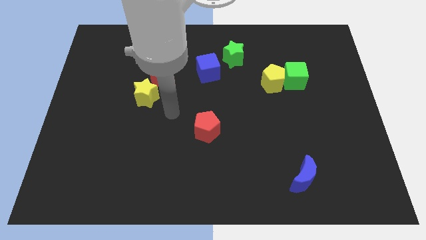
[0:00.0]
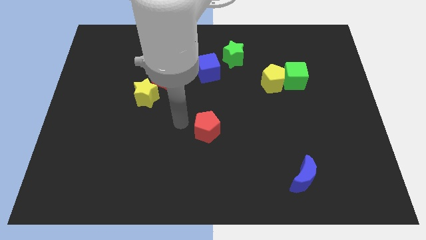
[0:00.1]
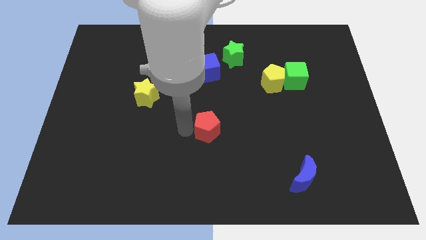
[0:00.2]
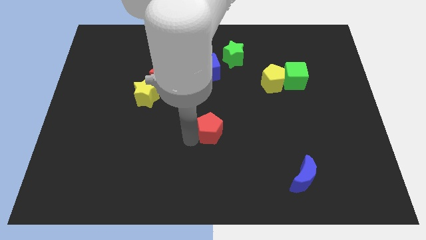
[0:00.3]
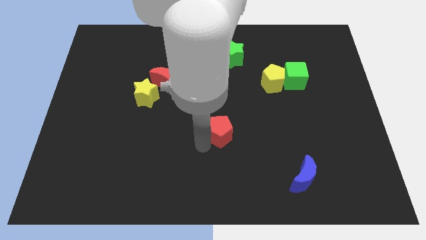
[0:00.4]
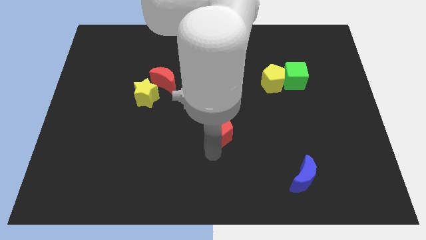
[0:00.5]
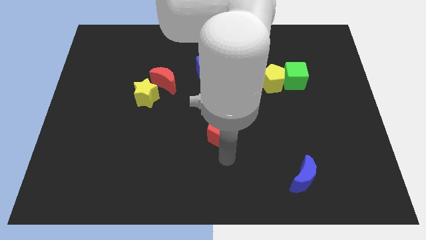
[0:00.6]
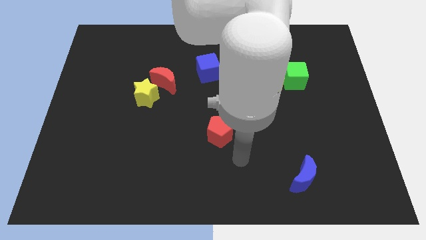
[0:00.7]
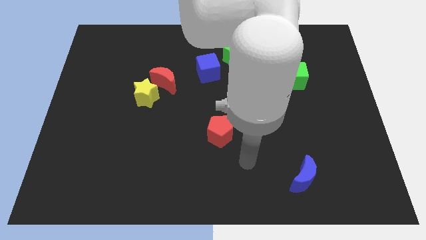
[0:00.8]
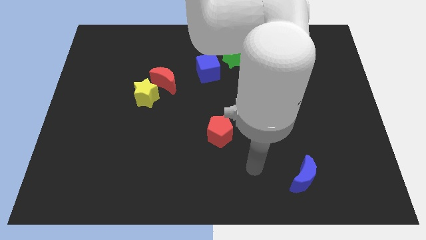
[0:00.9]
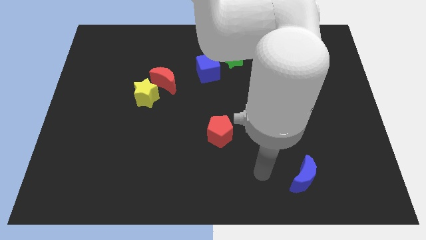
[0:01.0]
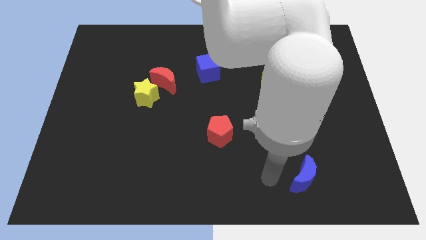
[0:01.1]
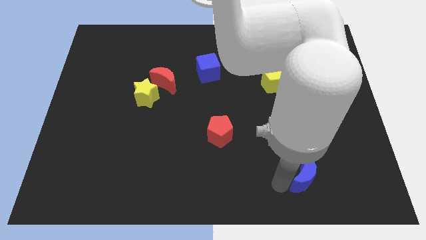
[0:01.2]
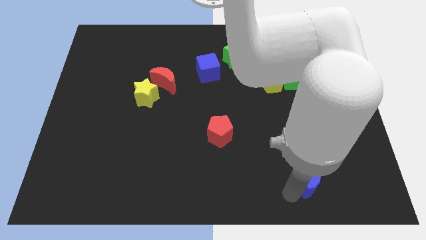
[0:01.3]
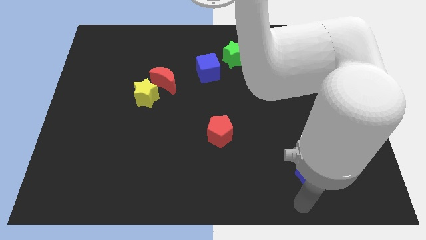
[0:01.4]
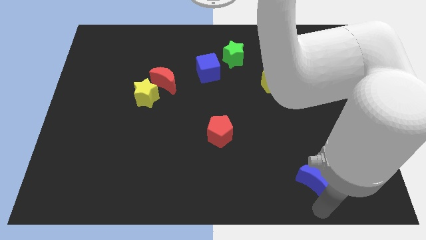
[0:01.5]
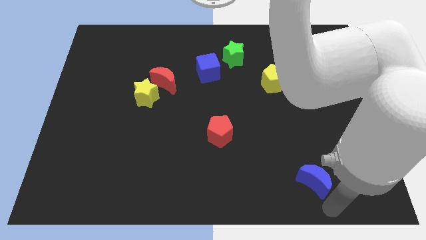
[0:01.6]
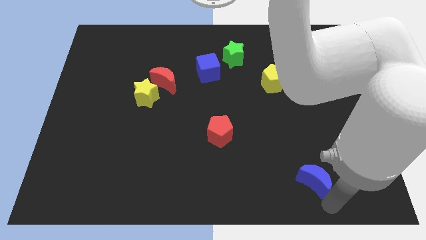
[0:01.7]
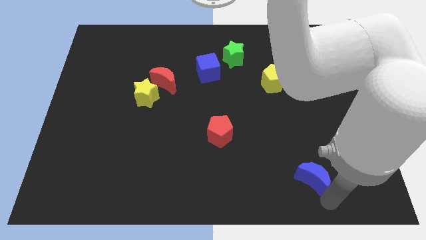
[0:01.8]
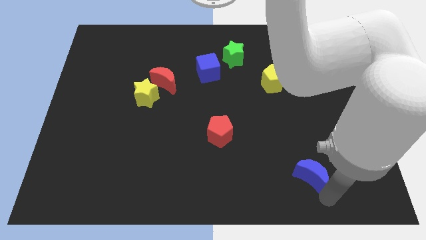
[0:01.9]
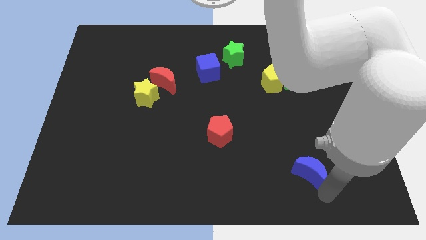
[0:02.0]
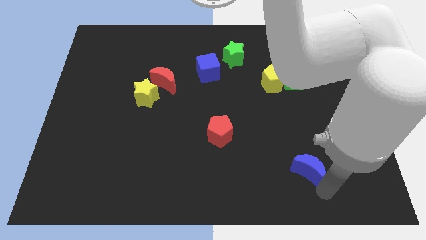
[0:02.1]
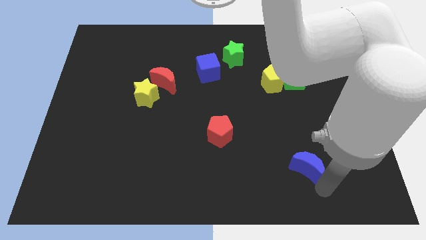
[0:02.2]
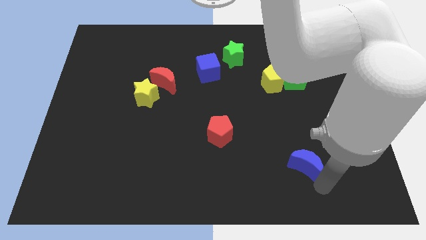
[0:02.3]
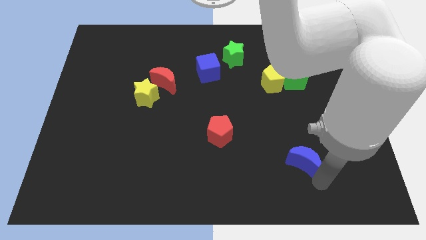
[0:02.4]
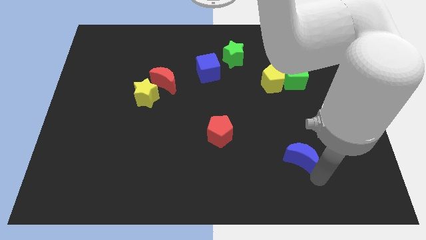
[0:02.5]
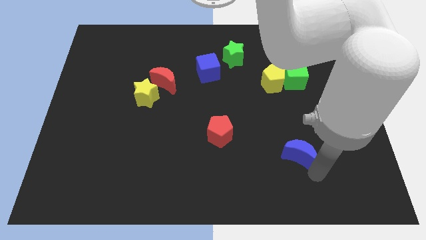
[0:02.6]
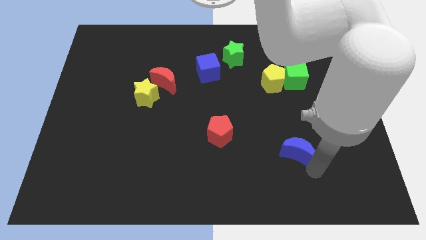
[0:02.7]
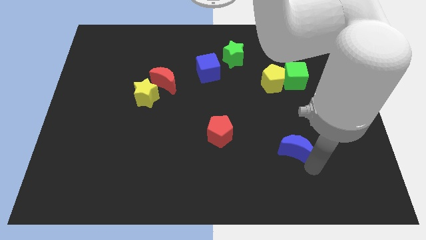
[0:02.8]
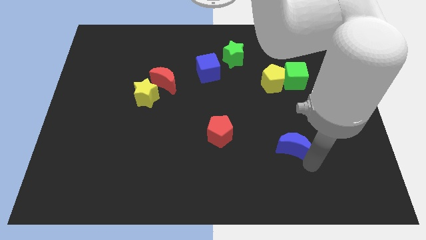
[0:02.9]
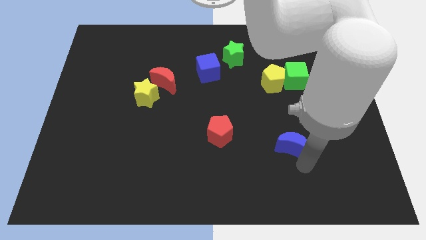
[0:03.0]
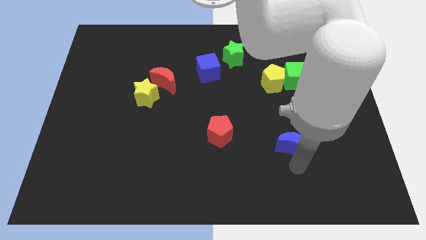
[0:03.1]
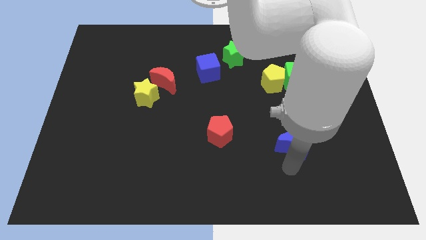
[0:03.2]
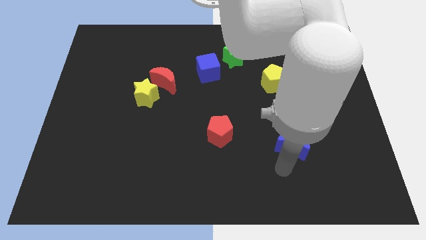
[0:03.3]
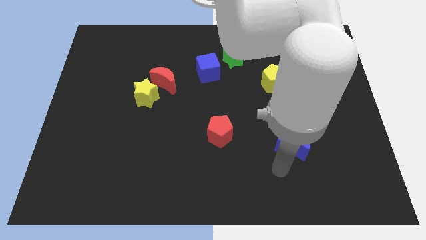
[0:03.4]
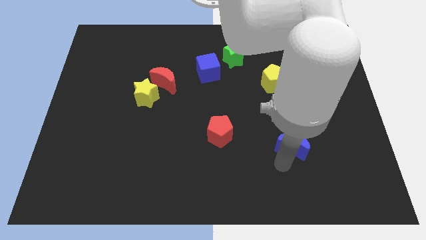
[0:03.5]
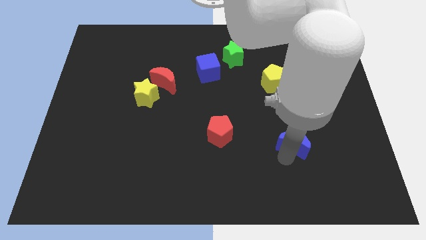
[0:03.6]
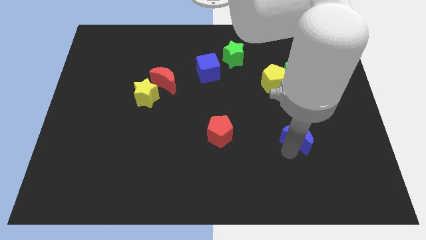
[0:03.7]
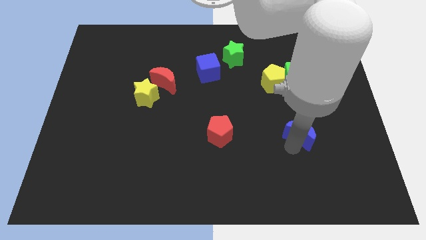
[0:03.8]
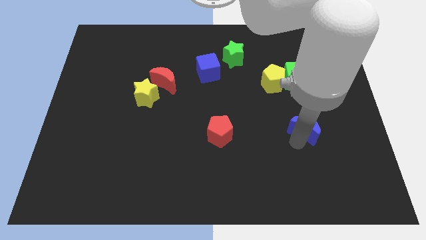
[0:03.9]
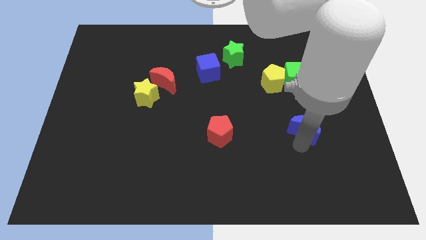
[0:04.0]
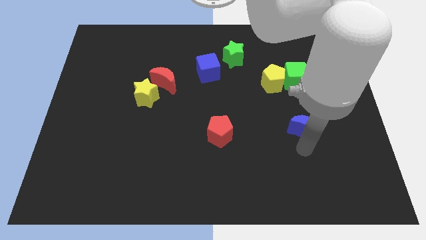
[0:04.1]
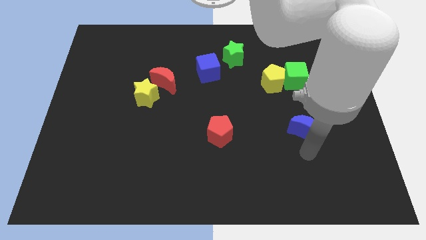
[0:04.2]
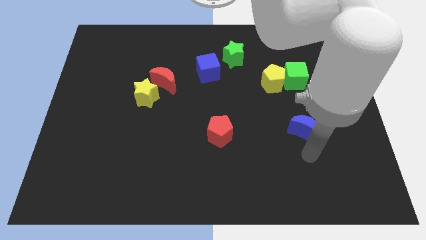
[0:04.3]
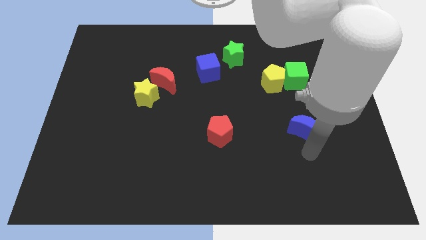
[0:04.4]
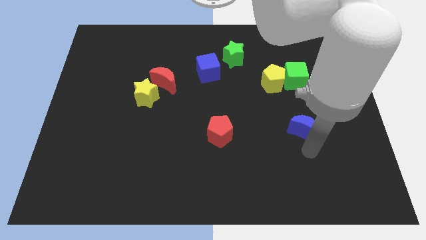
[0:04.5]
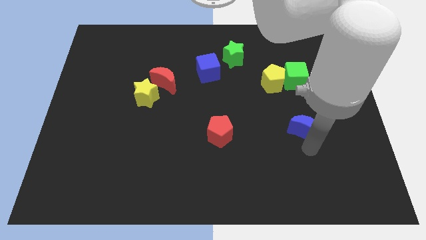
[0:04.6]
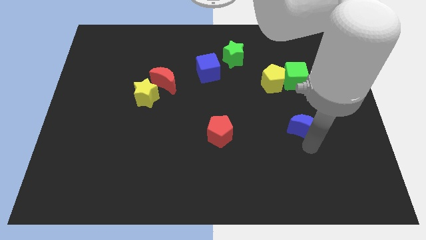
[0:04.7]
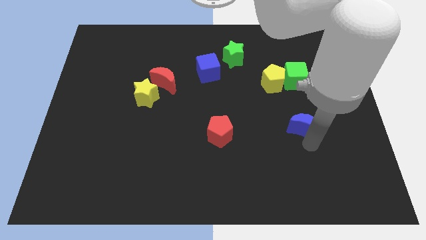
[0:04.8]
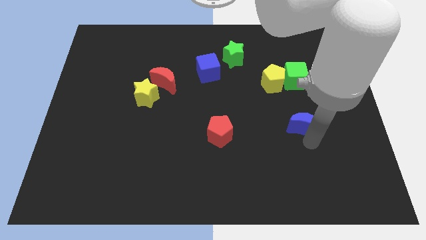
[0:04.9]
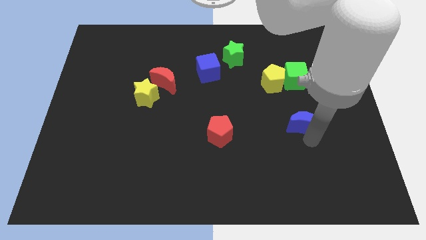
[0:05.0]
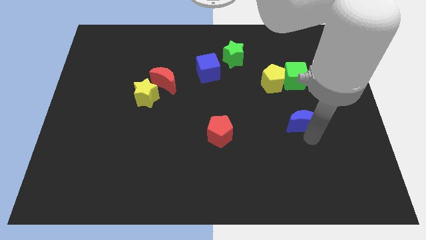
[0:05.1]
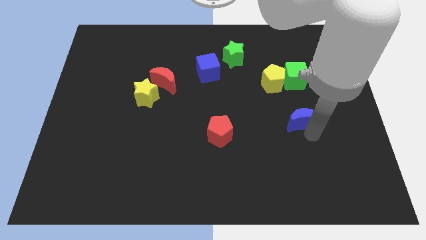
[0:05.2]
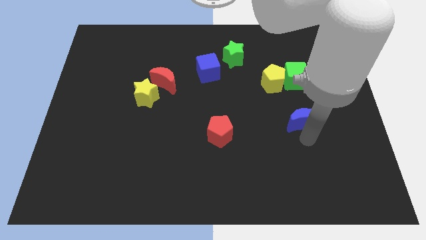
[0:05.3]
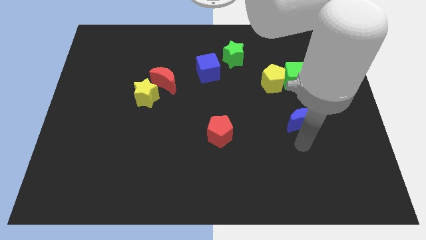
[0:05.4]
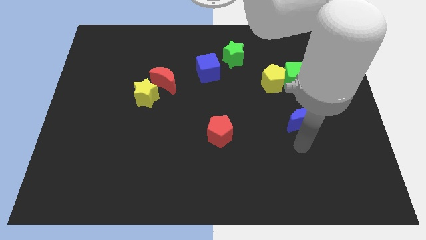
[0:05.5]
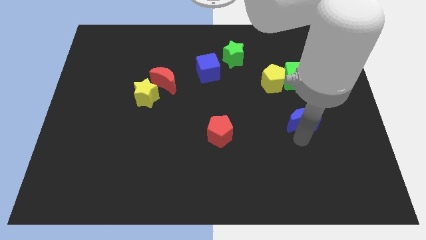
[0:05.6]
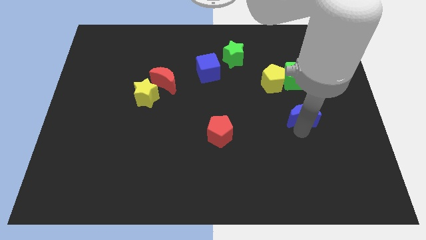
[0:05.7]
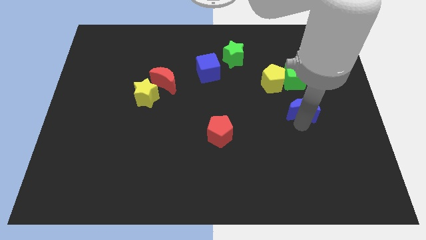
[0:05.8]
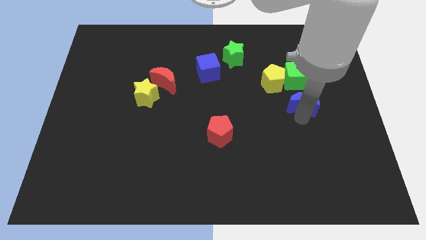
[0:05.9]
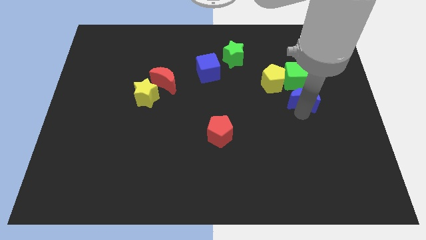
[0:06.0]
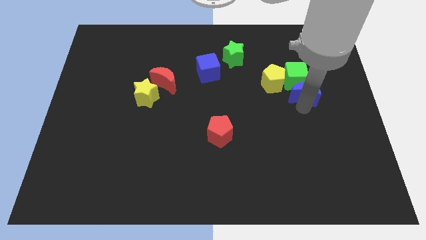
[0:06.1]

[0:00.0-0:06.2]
push the blue moon to the green cube

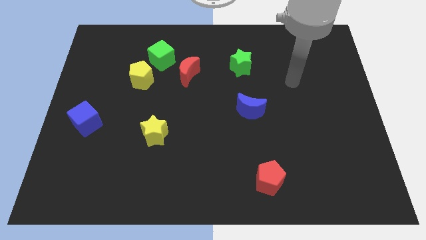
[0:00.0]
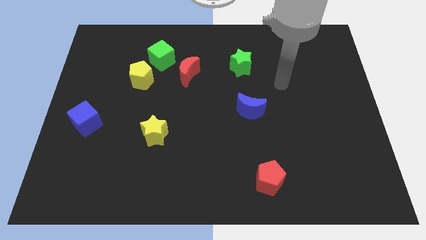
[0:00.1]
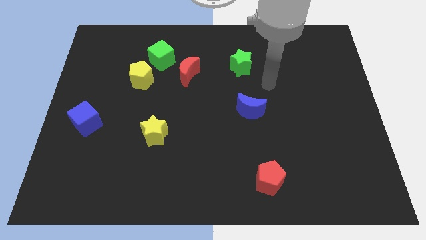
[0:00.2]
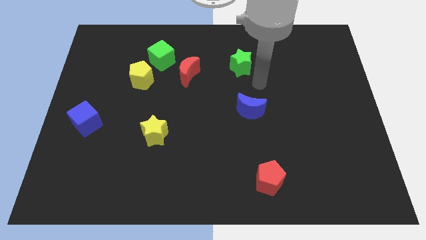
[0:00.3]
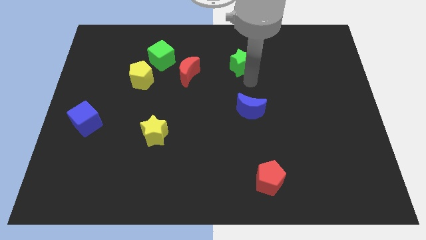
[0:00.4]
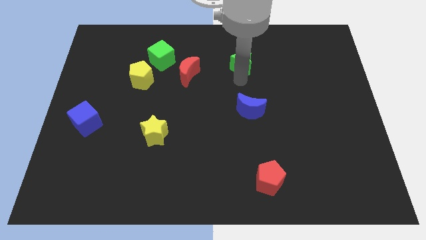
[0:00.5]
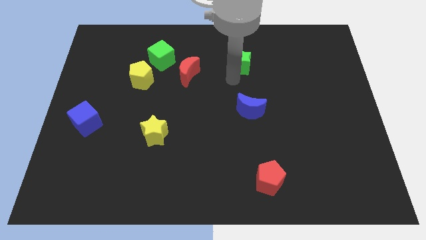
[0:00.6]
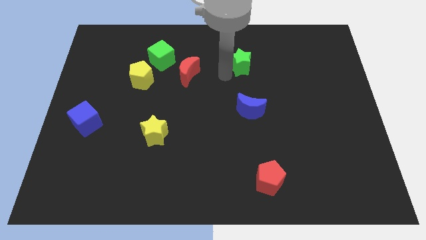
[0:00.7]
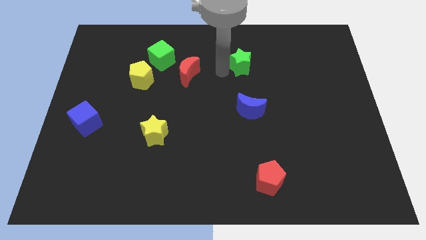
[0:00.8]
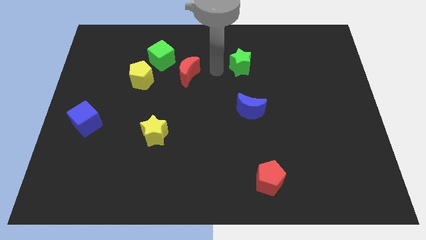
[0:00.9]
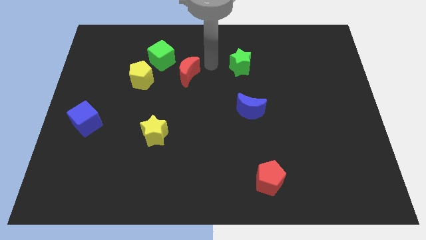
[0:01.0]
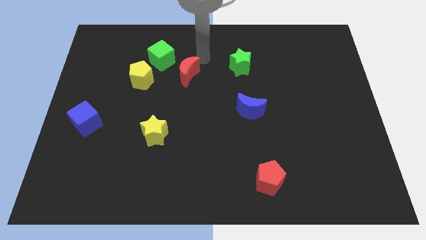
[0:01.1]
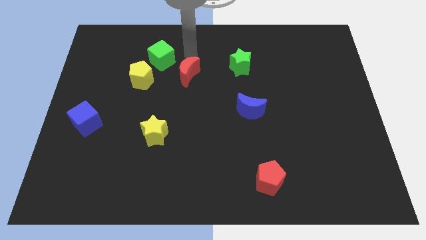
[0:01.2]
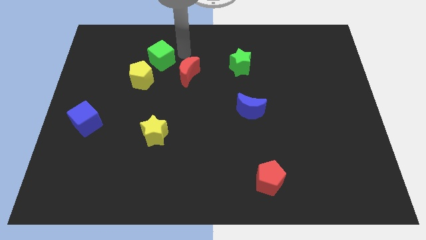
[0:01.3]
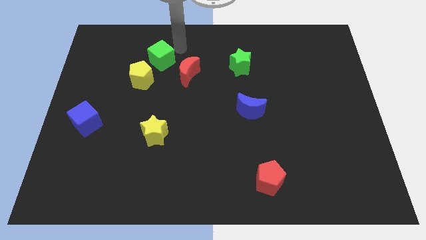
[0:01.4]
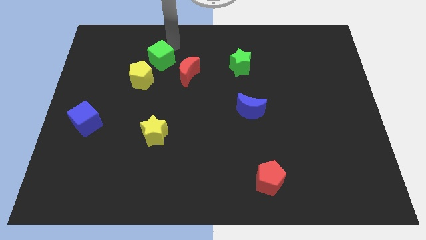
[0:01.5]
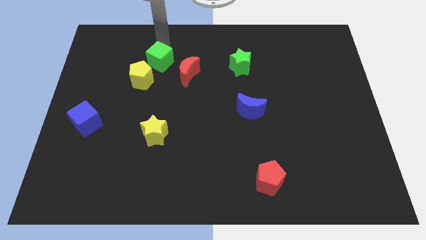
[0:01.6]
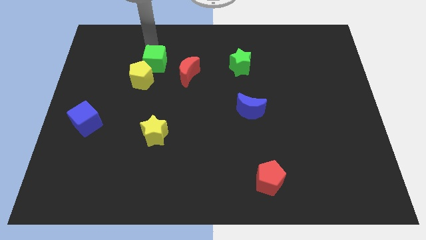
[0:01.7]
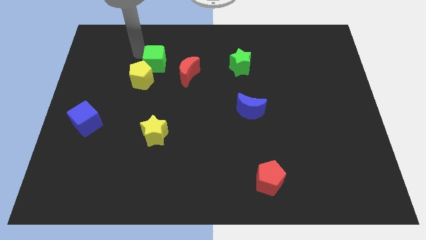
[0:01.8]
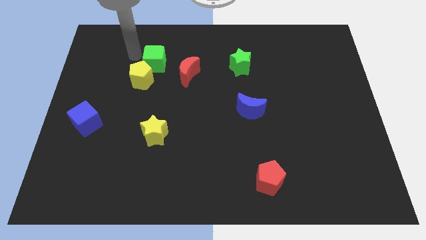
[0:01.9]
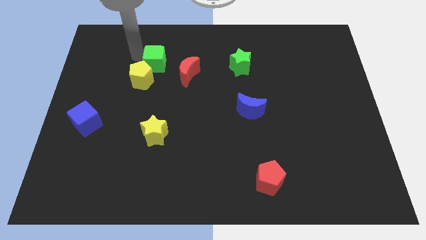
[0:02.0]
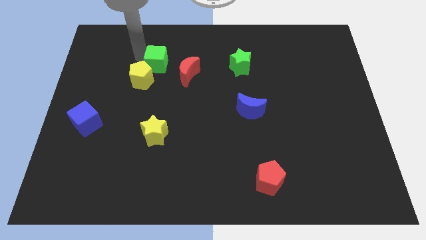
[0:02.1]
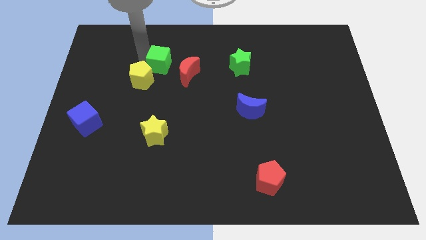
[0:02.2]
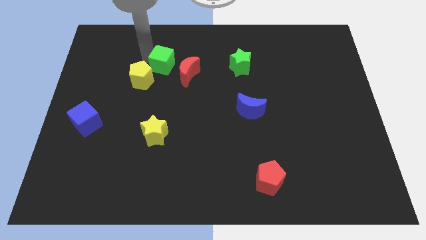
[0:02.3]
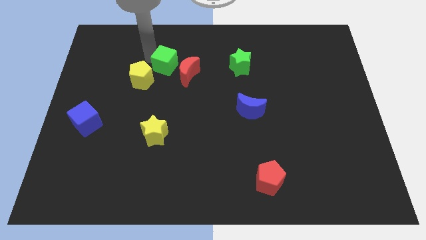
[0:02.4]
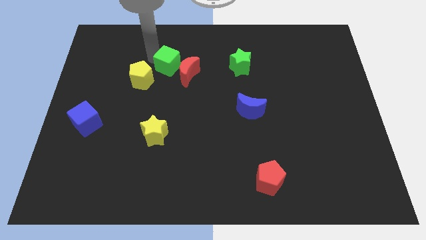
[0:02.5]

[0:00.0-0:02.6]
move the green cube to the red moon
